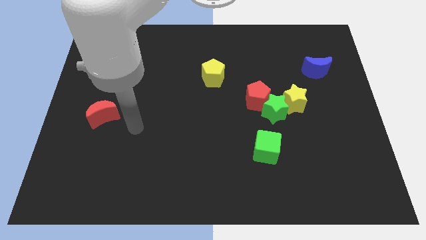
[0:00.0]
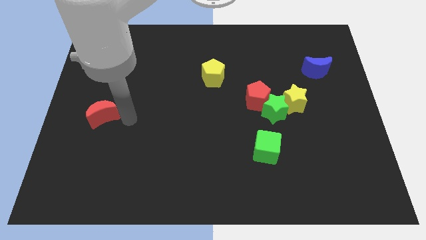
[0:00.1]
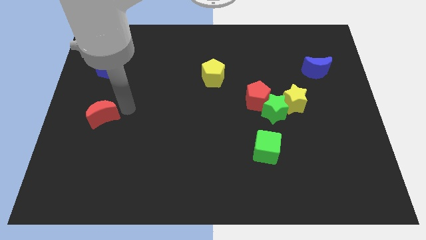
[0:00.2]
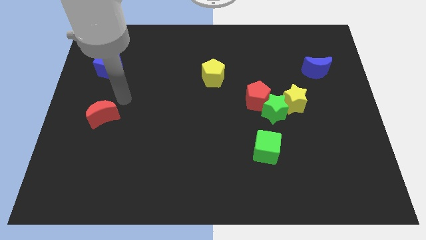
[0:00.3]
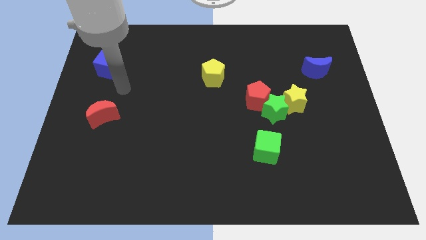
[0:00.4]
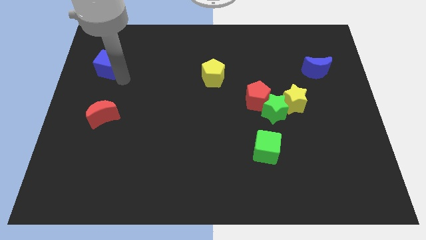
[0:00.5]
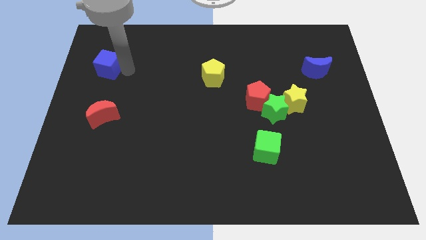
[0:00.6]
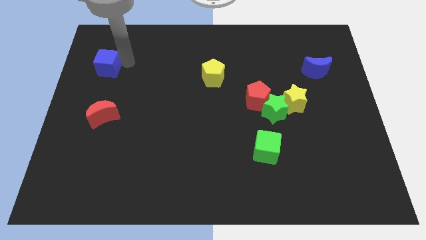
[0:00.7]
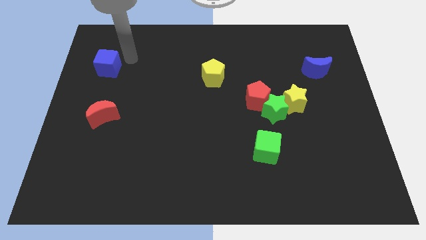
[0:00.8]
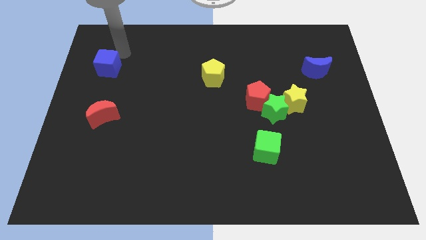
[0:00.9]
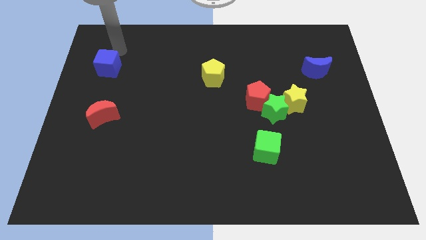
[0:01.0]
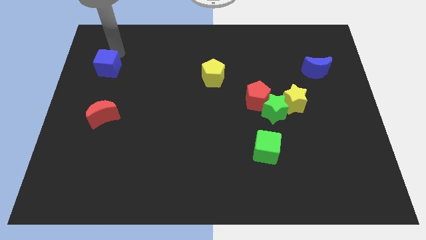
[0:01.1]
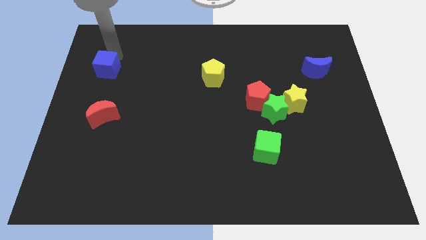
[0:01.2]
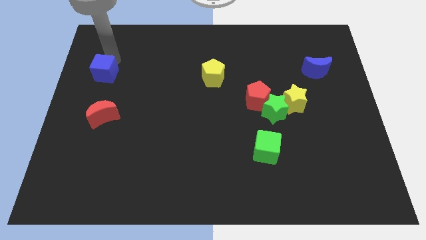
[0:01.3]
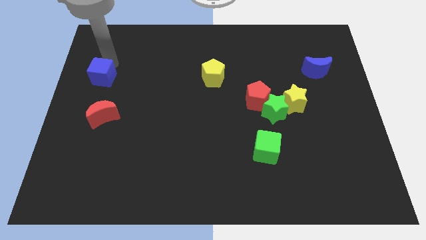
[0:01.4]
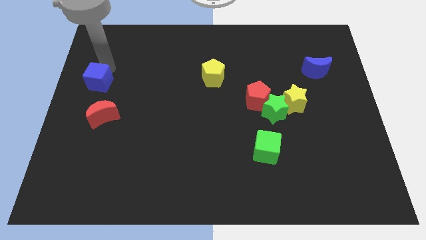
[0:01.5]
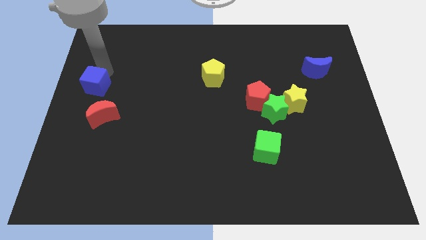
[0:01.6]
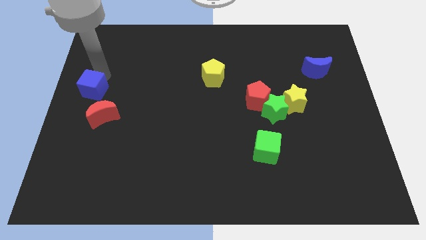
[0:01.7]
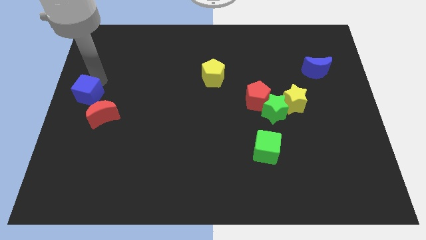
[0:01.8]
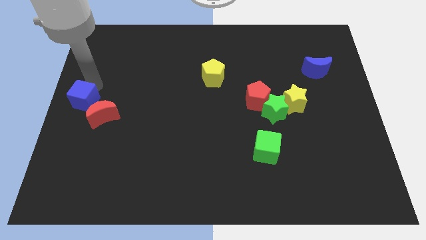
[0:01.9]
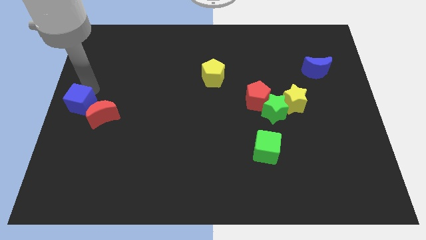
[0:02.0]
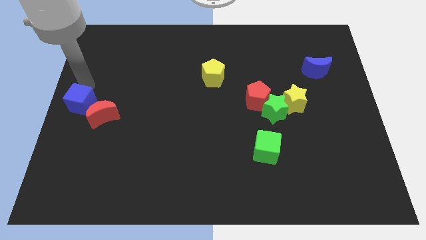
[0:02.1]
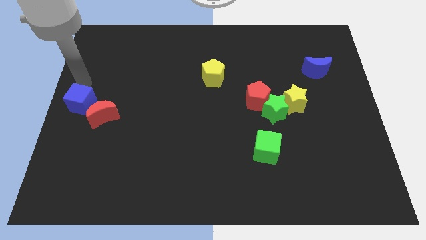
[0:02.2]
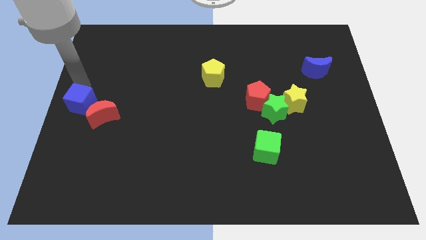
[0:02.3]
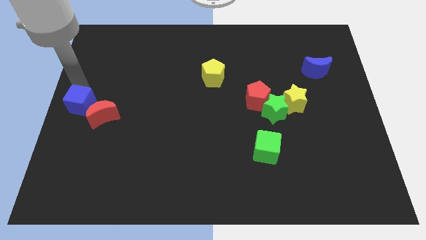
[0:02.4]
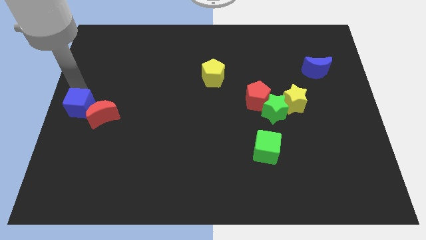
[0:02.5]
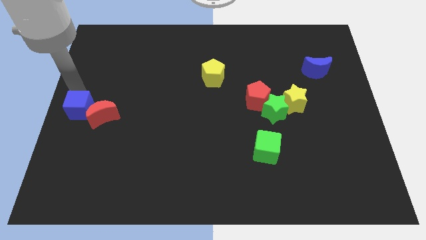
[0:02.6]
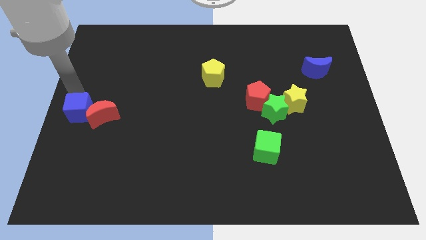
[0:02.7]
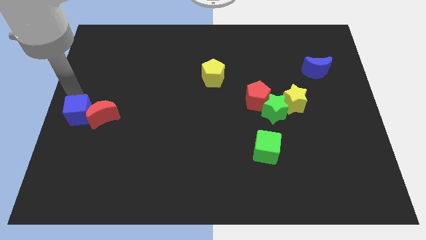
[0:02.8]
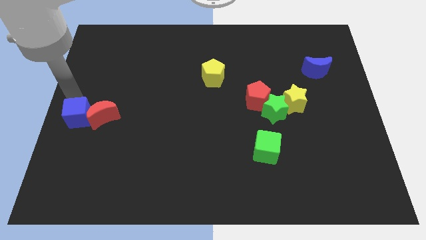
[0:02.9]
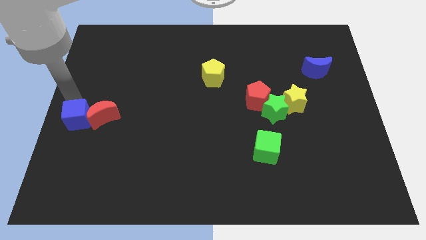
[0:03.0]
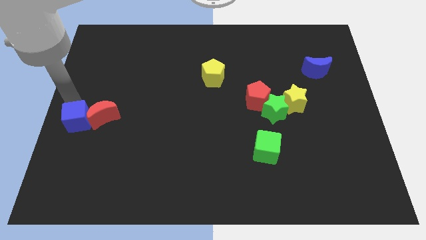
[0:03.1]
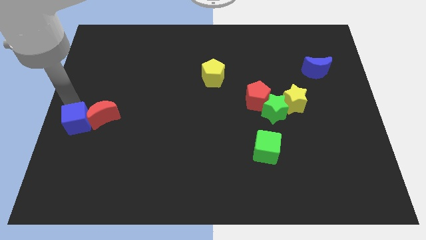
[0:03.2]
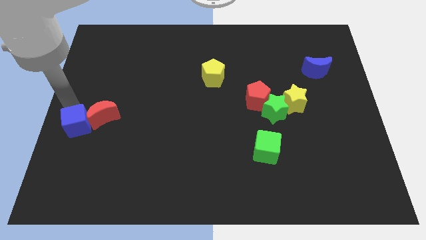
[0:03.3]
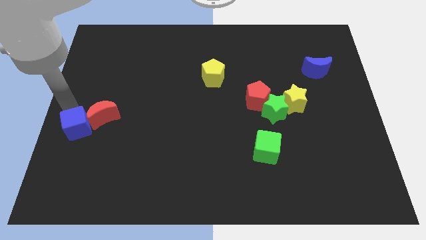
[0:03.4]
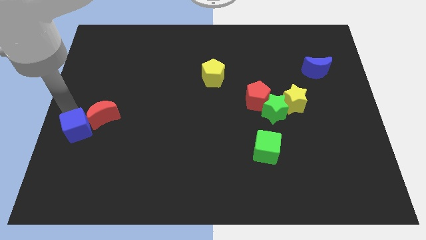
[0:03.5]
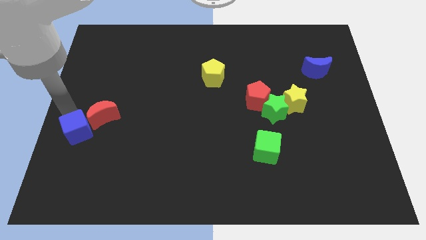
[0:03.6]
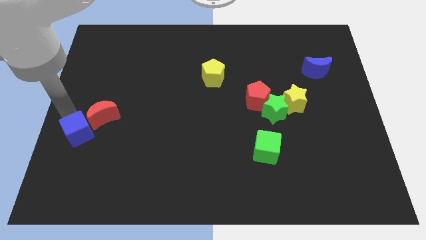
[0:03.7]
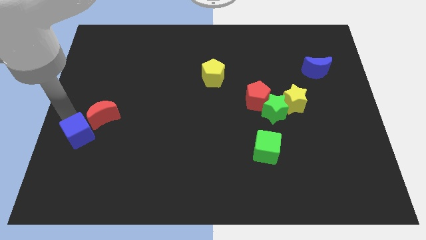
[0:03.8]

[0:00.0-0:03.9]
slide the blue cube downwards

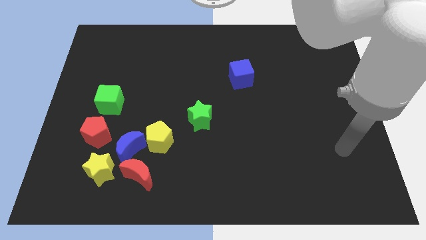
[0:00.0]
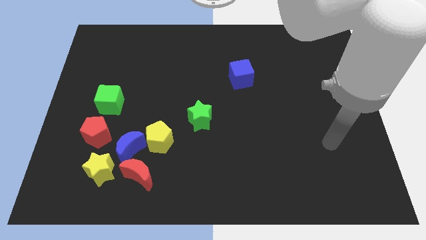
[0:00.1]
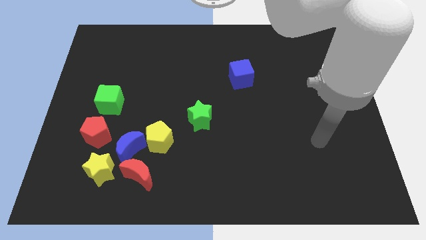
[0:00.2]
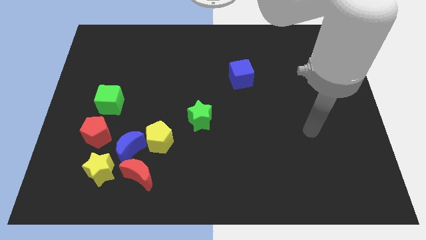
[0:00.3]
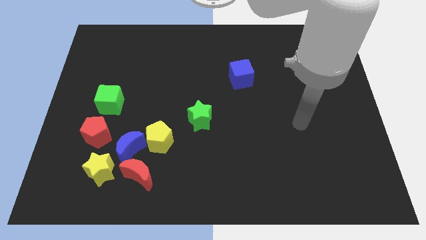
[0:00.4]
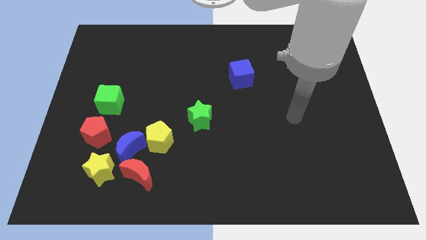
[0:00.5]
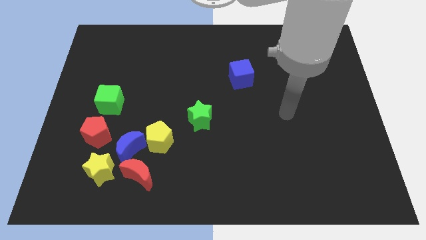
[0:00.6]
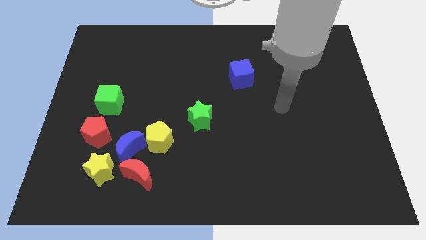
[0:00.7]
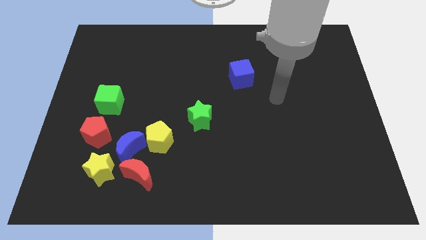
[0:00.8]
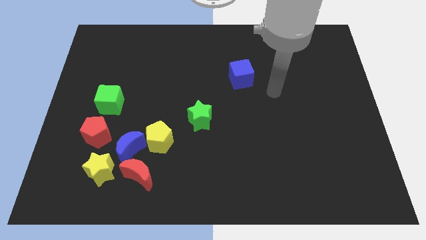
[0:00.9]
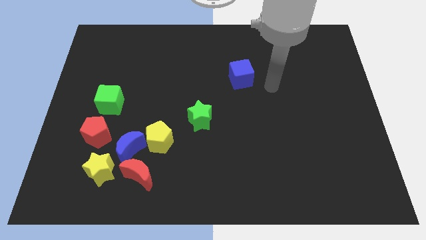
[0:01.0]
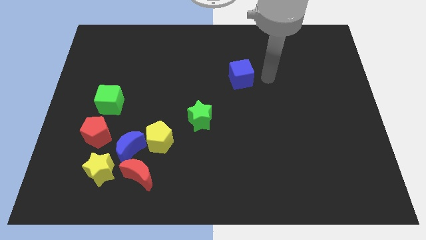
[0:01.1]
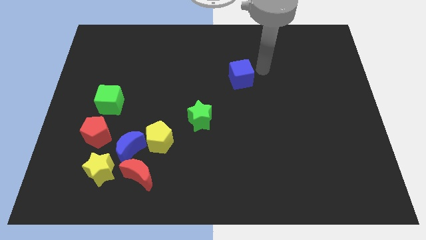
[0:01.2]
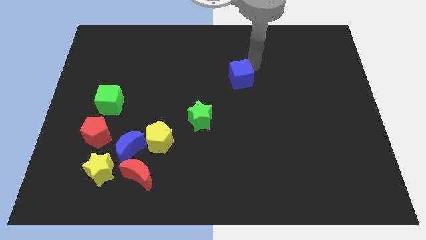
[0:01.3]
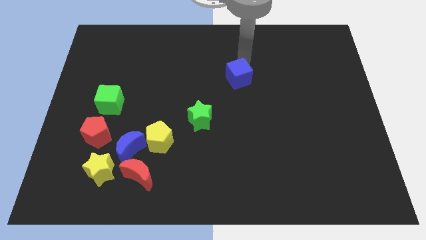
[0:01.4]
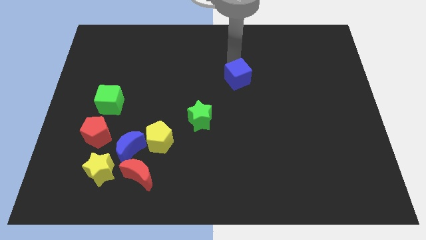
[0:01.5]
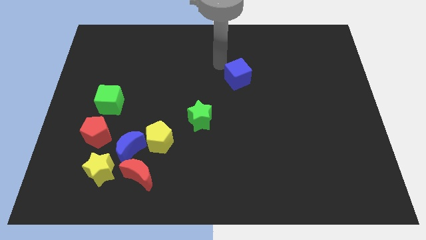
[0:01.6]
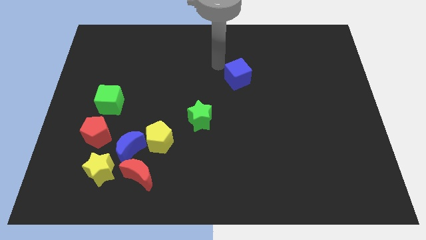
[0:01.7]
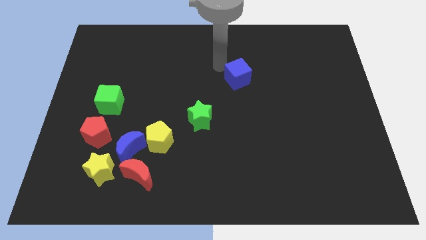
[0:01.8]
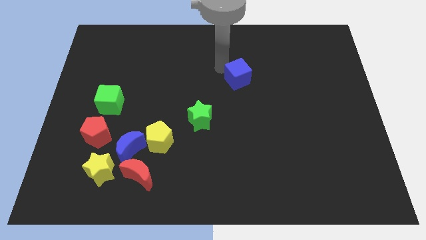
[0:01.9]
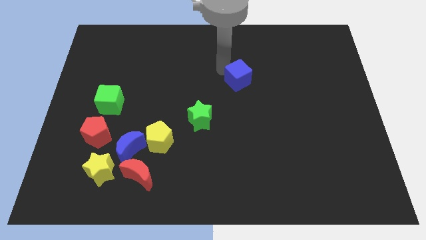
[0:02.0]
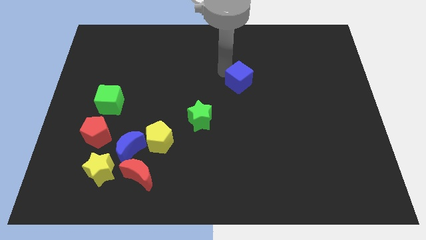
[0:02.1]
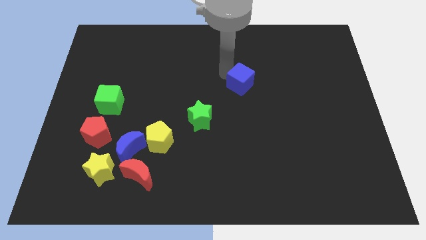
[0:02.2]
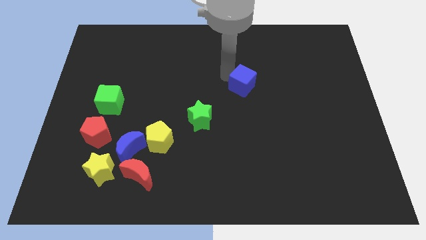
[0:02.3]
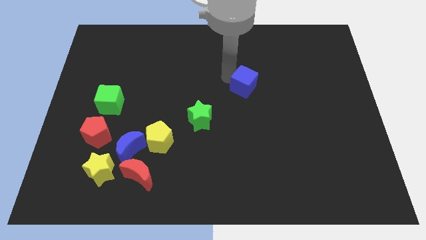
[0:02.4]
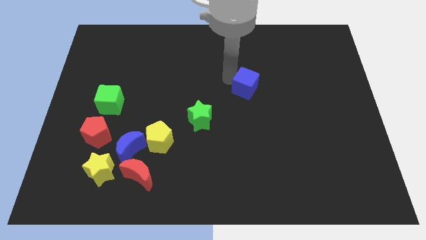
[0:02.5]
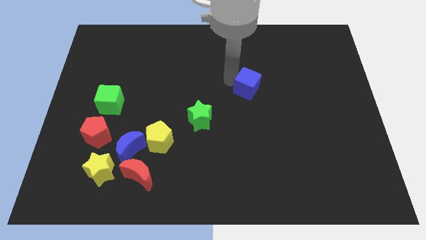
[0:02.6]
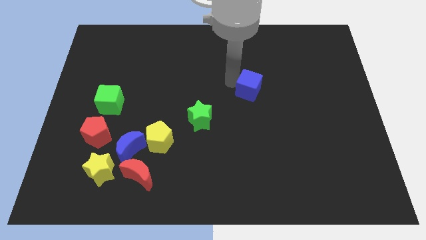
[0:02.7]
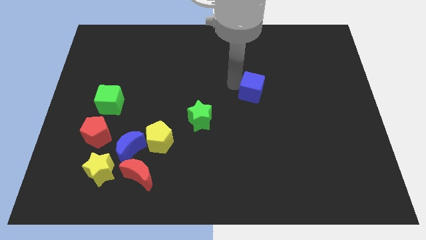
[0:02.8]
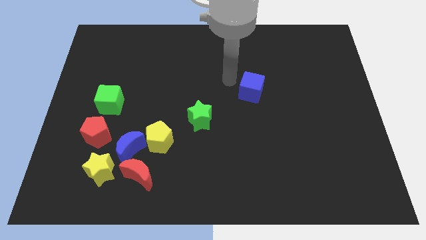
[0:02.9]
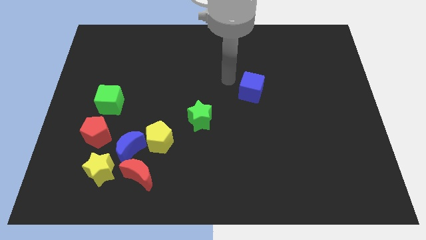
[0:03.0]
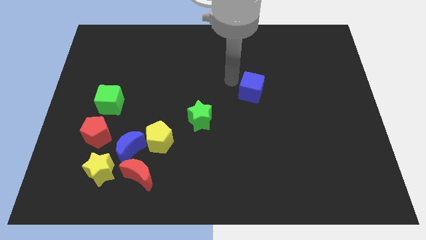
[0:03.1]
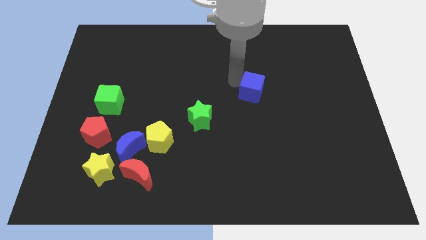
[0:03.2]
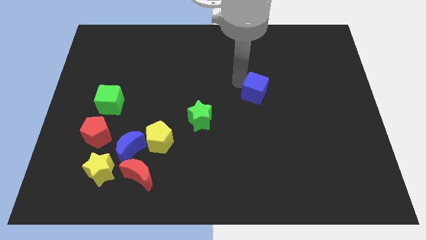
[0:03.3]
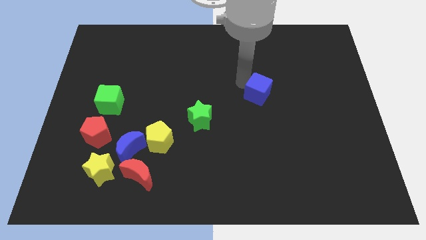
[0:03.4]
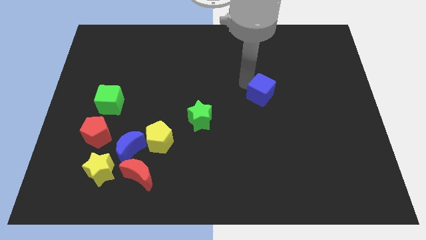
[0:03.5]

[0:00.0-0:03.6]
slightly slide the blue cube downwards and to the right diagonally
